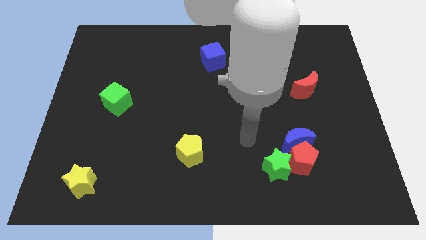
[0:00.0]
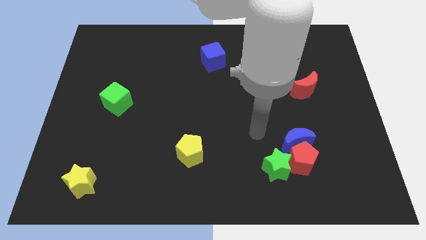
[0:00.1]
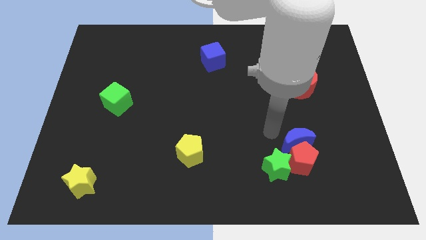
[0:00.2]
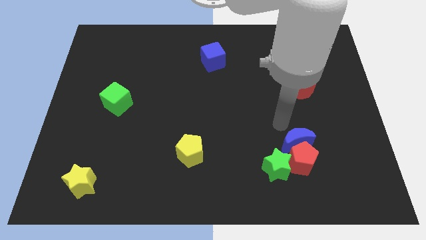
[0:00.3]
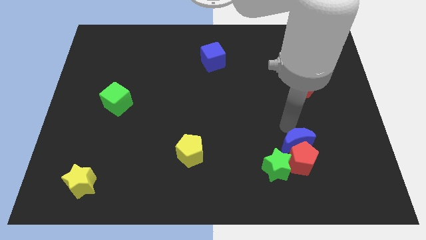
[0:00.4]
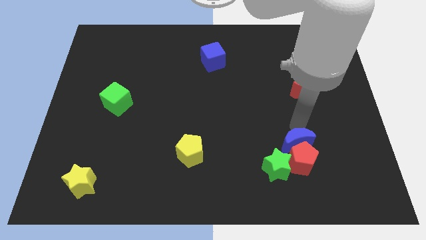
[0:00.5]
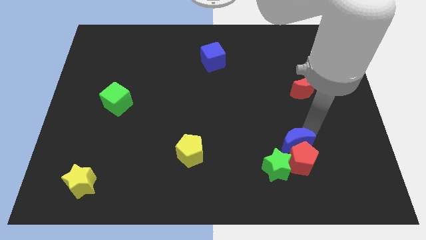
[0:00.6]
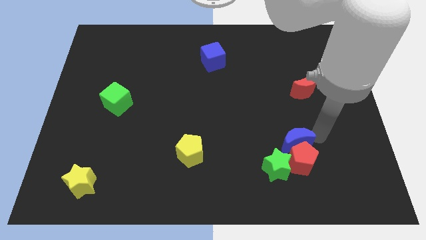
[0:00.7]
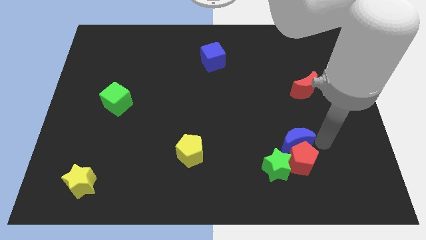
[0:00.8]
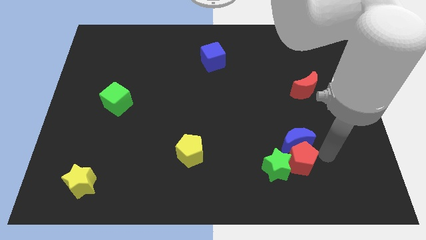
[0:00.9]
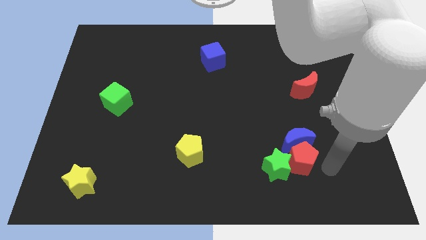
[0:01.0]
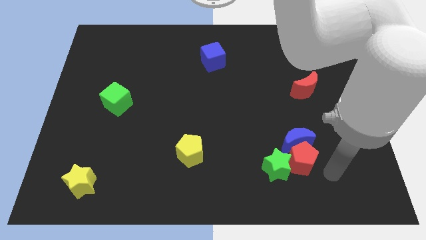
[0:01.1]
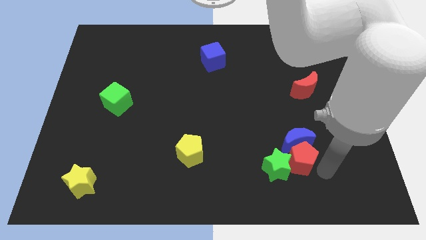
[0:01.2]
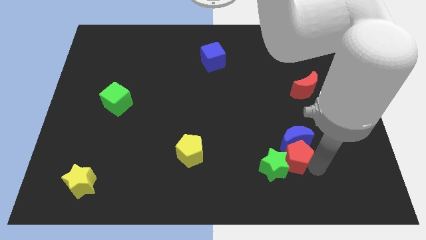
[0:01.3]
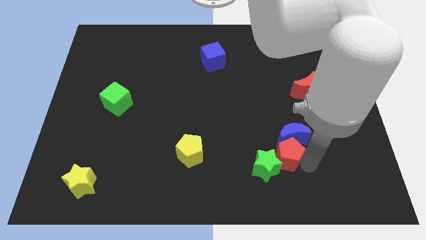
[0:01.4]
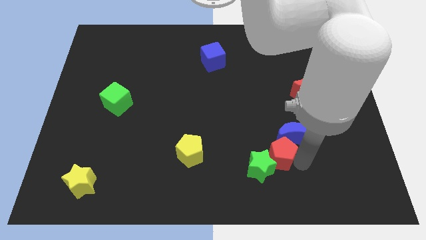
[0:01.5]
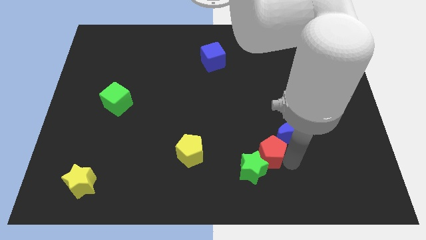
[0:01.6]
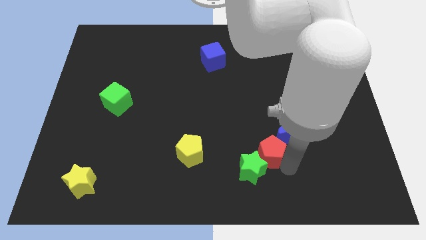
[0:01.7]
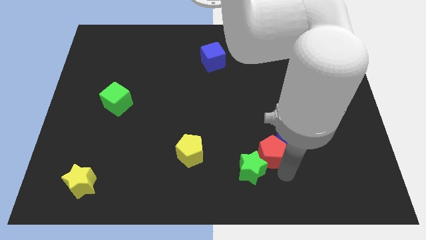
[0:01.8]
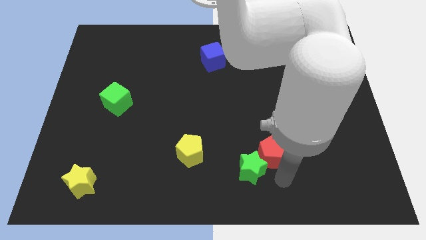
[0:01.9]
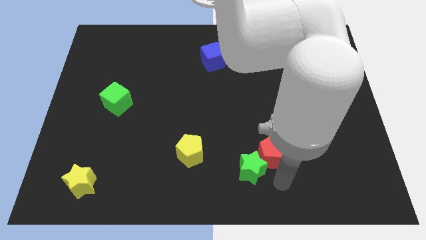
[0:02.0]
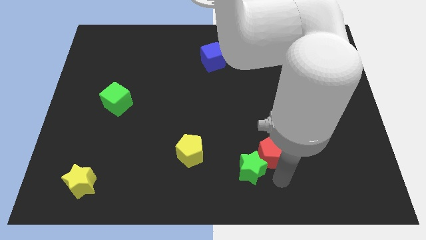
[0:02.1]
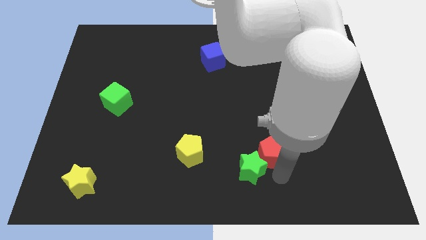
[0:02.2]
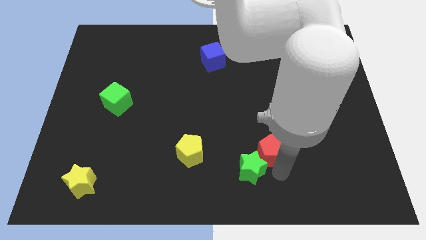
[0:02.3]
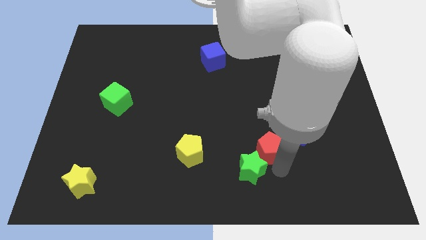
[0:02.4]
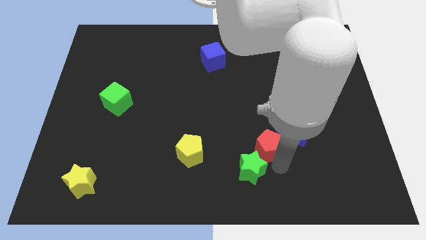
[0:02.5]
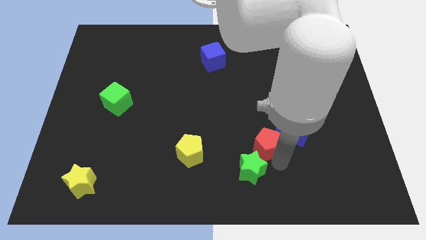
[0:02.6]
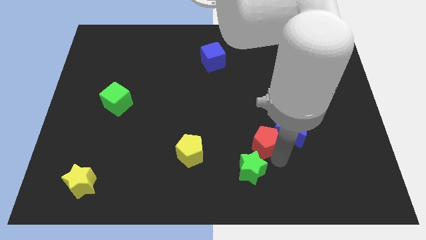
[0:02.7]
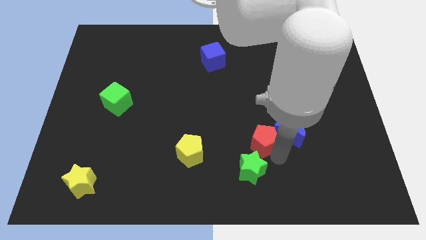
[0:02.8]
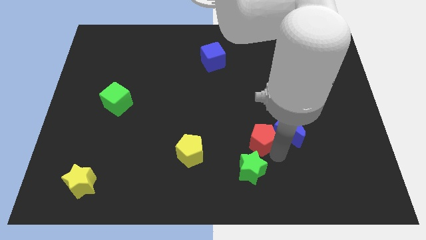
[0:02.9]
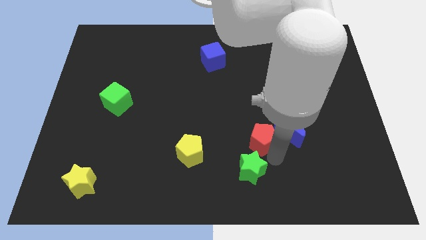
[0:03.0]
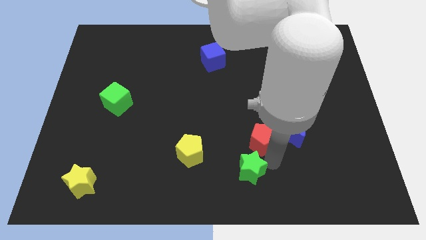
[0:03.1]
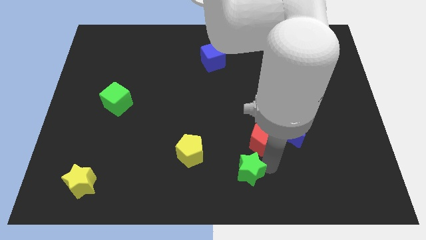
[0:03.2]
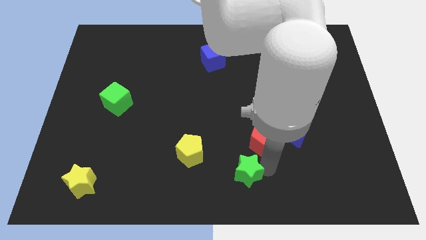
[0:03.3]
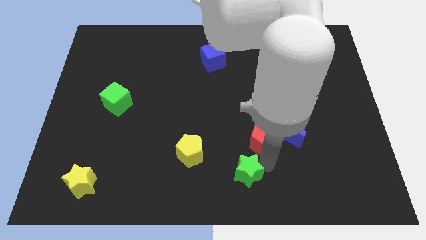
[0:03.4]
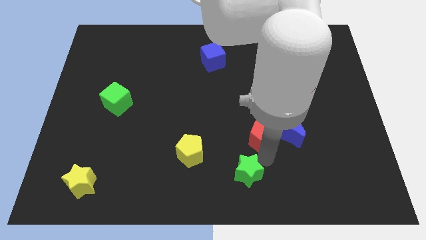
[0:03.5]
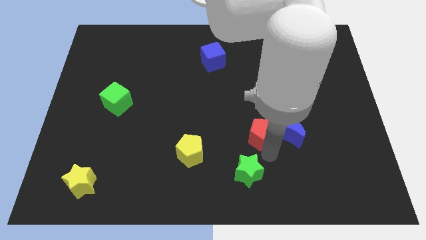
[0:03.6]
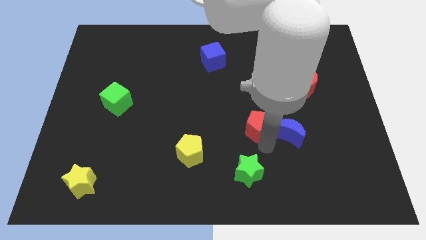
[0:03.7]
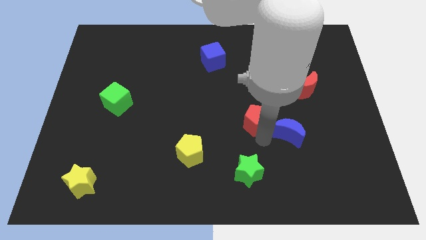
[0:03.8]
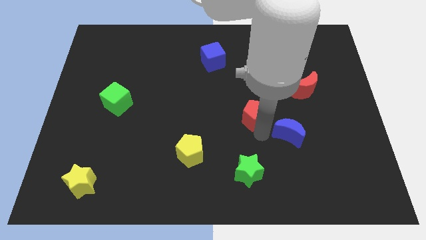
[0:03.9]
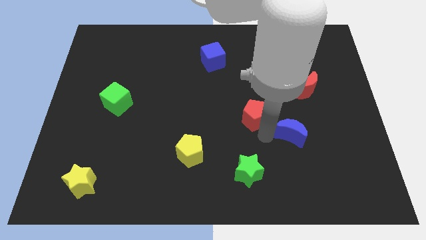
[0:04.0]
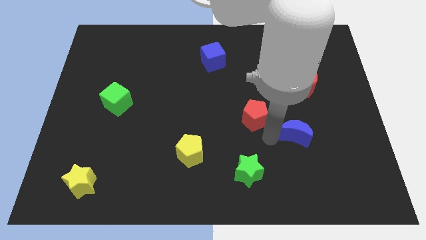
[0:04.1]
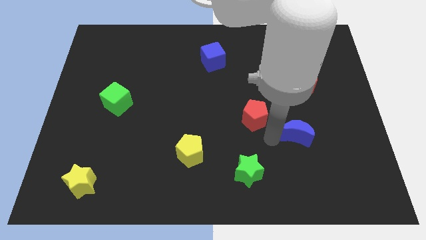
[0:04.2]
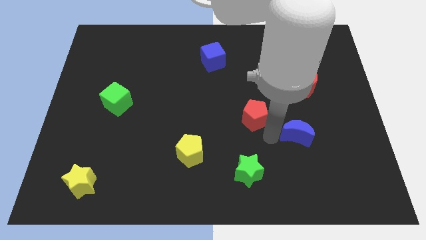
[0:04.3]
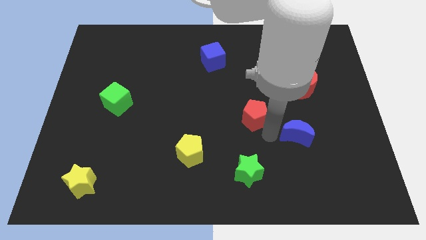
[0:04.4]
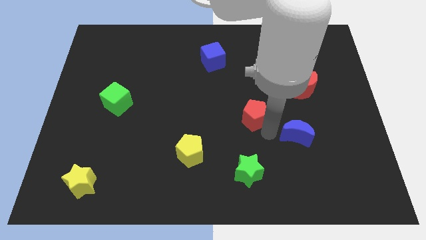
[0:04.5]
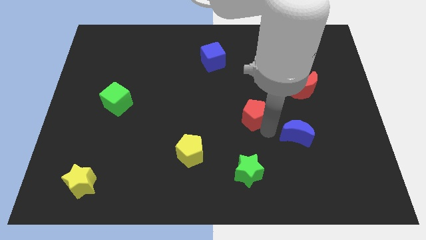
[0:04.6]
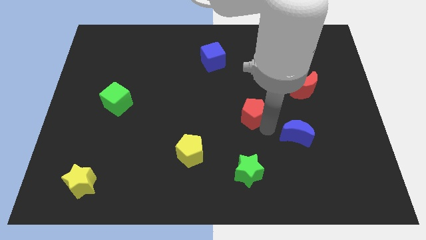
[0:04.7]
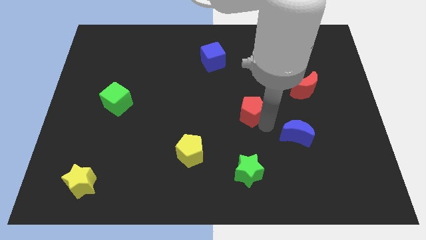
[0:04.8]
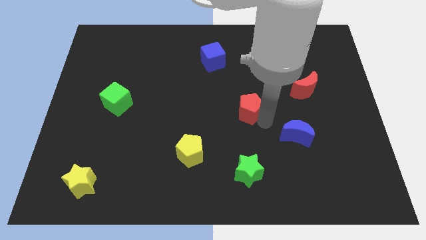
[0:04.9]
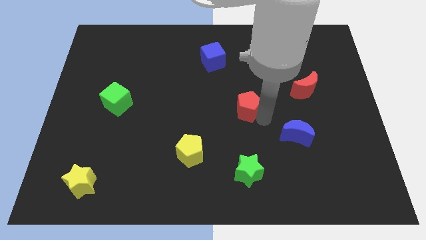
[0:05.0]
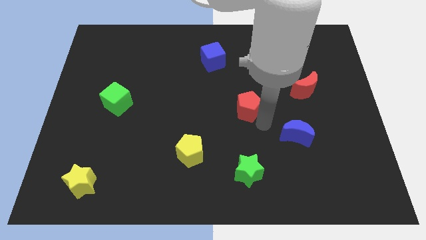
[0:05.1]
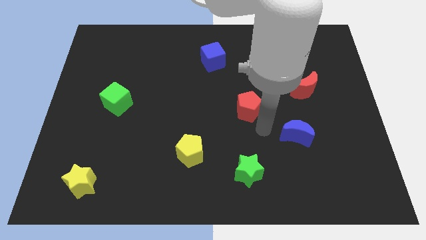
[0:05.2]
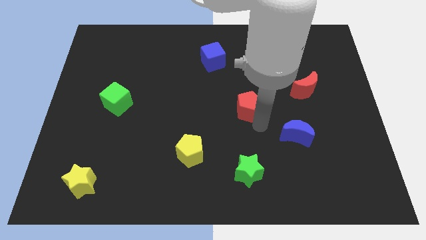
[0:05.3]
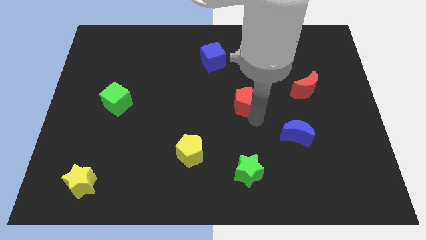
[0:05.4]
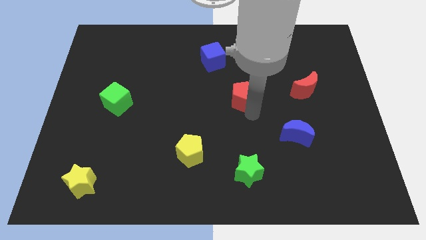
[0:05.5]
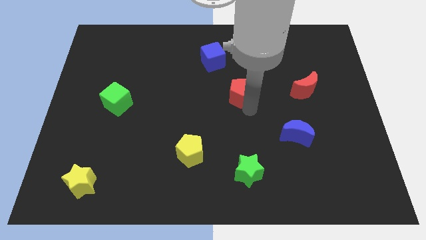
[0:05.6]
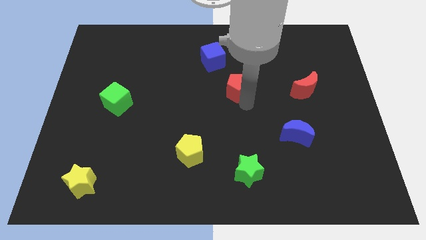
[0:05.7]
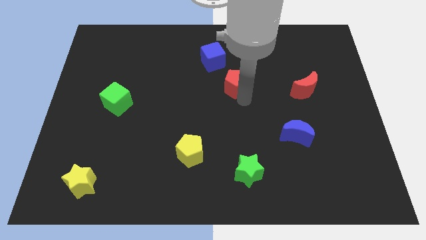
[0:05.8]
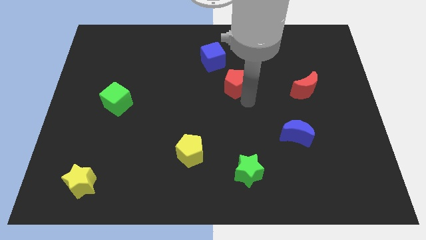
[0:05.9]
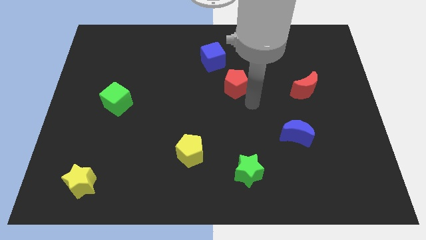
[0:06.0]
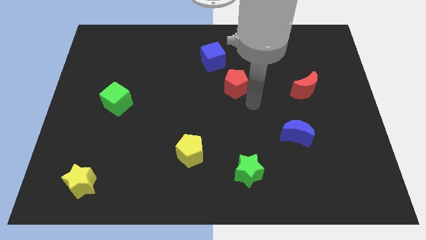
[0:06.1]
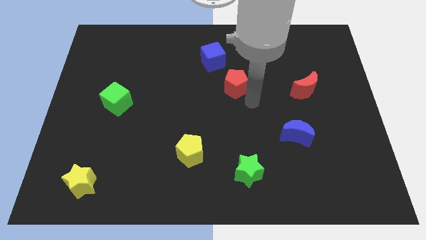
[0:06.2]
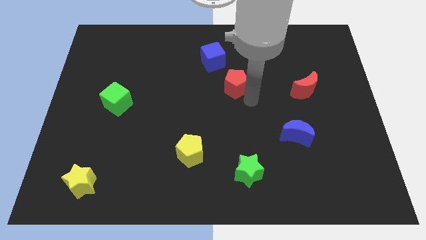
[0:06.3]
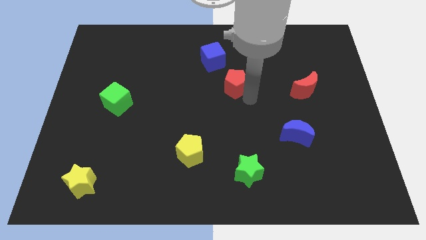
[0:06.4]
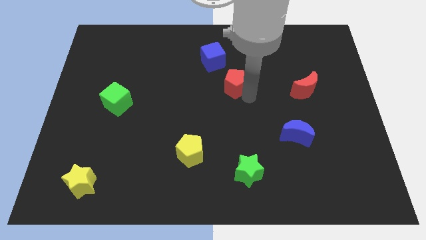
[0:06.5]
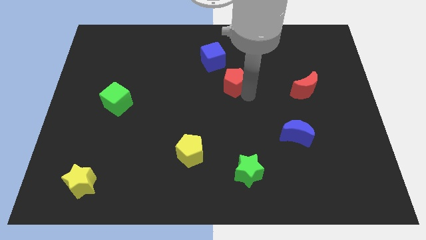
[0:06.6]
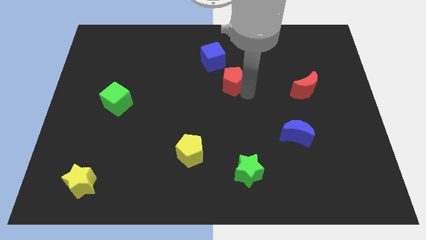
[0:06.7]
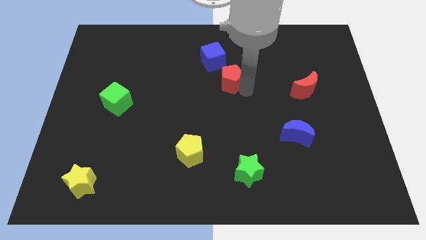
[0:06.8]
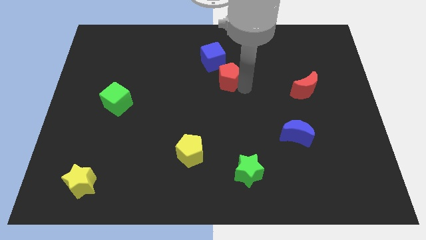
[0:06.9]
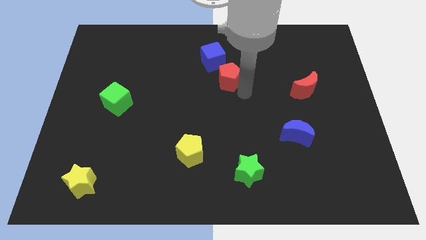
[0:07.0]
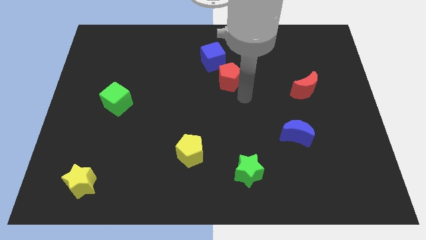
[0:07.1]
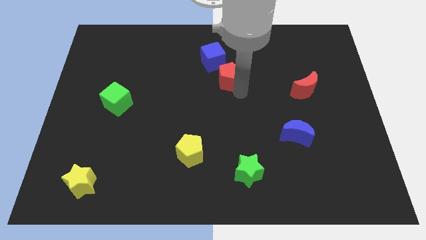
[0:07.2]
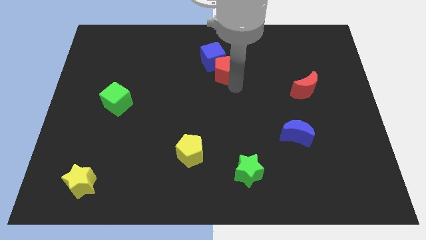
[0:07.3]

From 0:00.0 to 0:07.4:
move the red pentagon next to the blue cube
